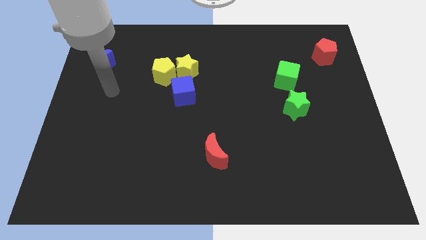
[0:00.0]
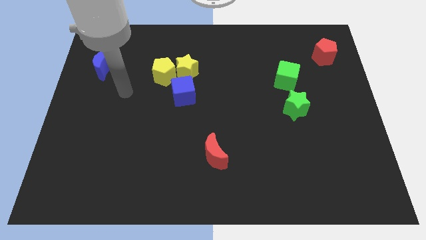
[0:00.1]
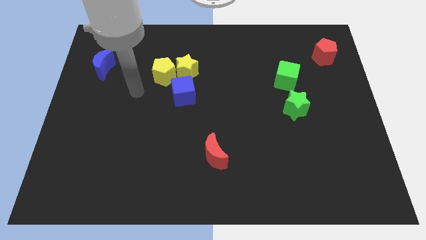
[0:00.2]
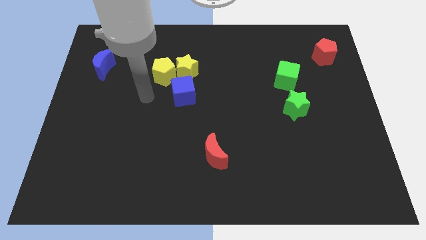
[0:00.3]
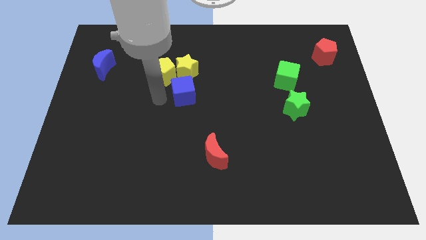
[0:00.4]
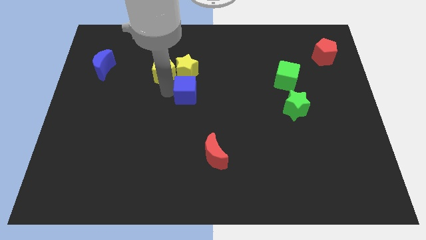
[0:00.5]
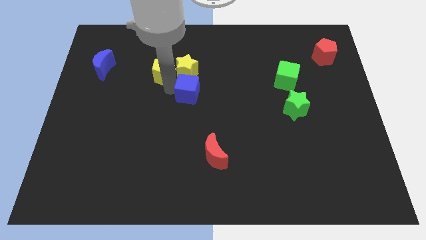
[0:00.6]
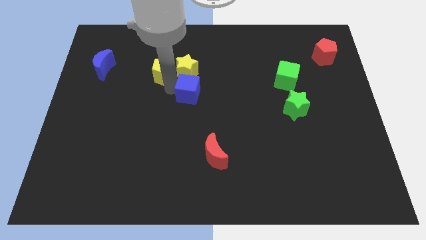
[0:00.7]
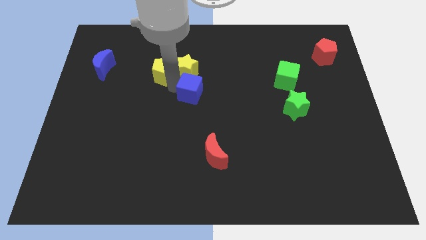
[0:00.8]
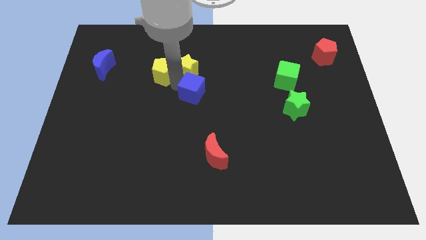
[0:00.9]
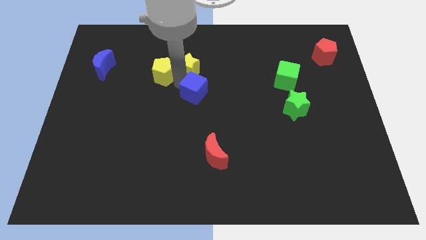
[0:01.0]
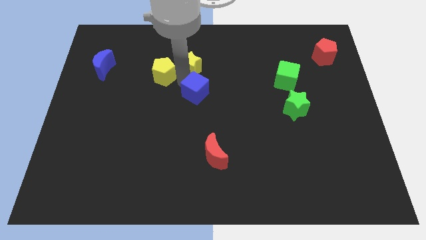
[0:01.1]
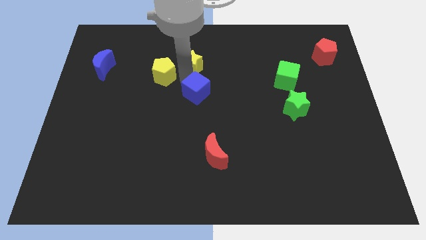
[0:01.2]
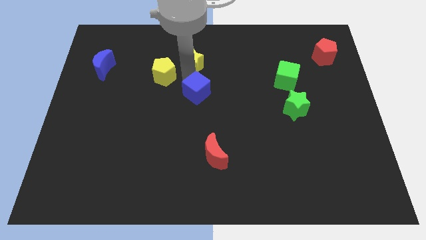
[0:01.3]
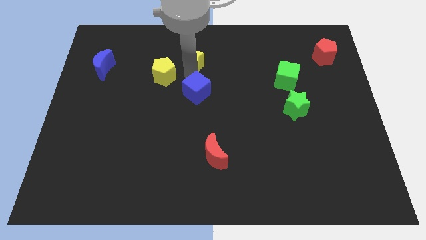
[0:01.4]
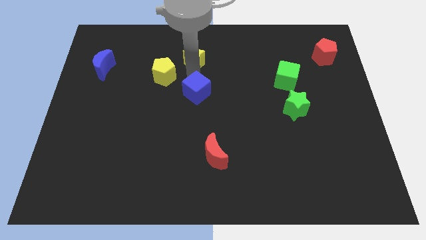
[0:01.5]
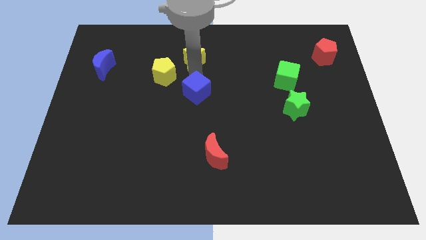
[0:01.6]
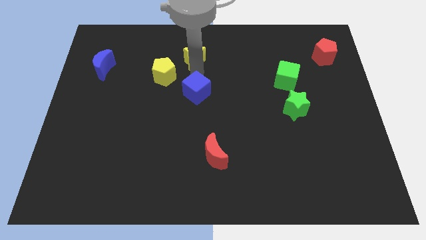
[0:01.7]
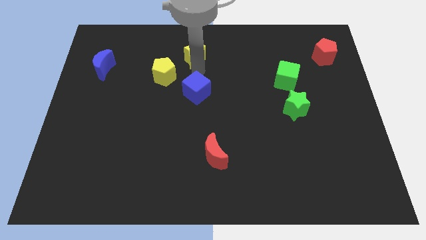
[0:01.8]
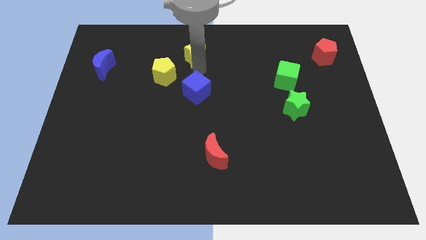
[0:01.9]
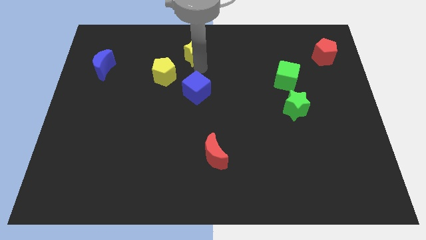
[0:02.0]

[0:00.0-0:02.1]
pull the yellow star apart from the yellow pentagon and blue cube

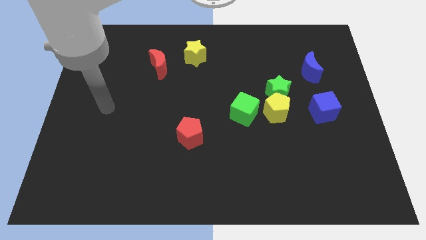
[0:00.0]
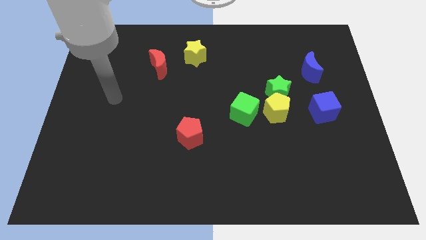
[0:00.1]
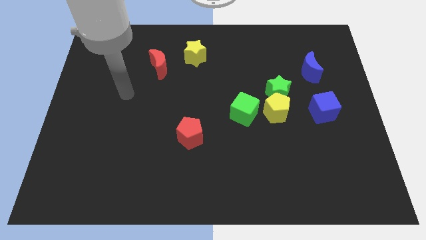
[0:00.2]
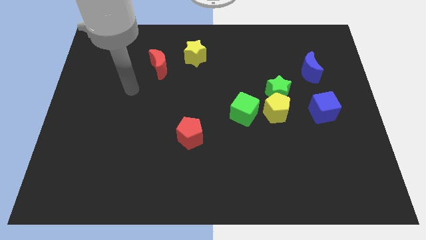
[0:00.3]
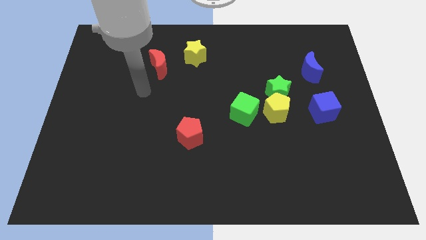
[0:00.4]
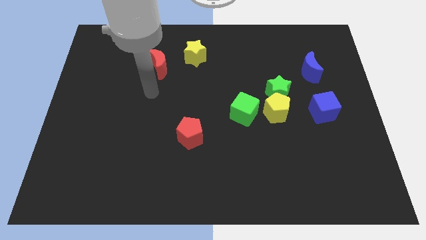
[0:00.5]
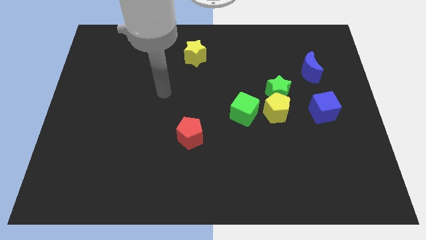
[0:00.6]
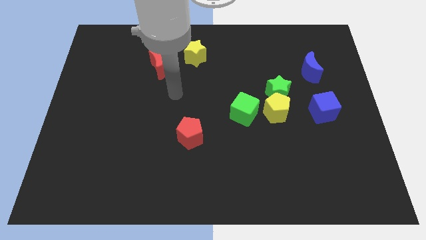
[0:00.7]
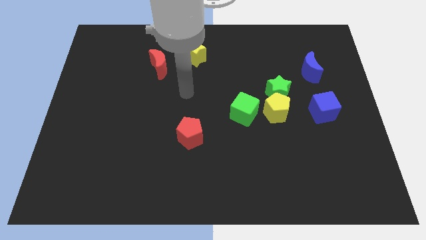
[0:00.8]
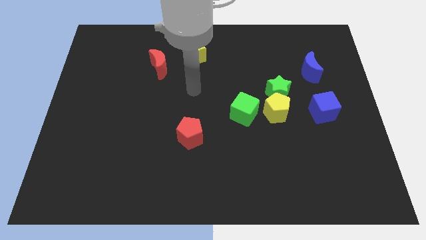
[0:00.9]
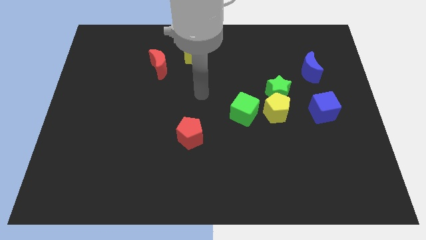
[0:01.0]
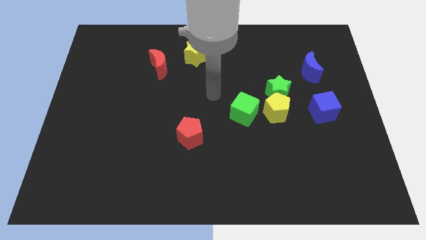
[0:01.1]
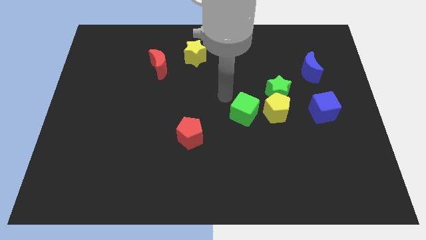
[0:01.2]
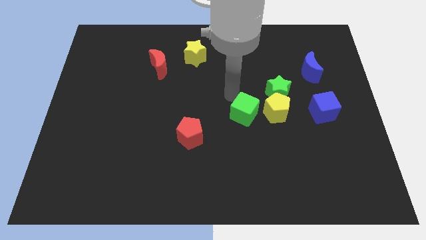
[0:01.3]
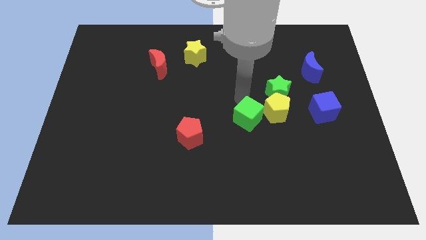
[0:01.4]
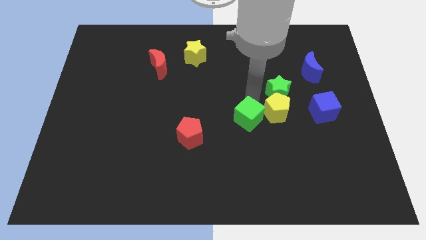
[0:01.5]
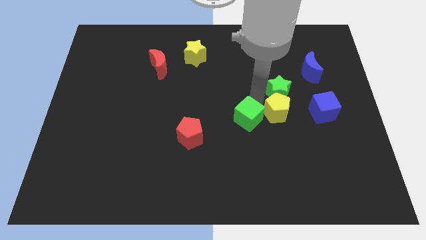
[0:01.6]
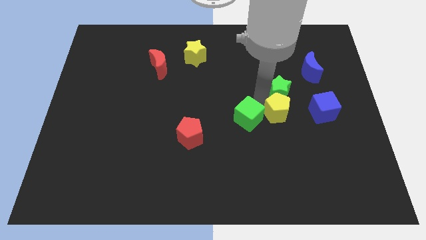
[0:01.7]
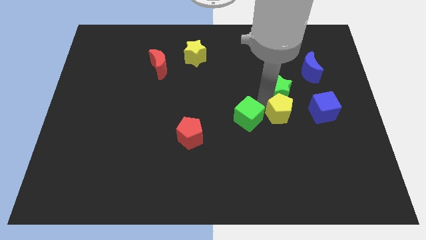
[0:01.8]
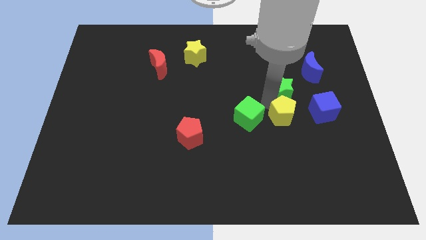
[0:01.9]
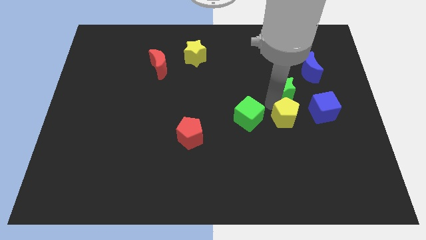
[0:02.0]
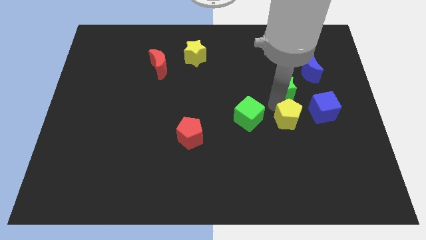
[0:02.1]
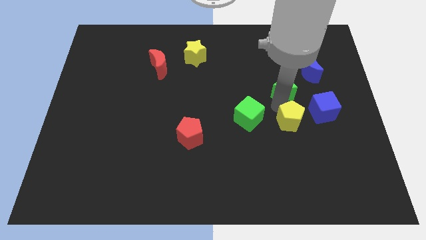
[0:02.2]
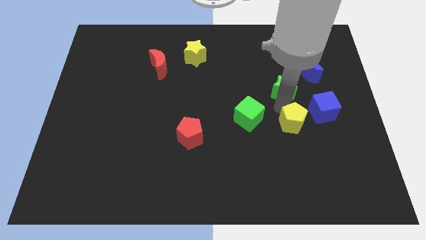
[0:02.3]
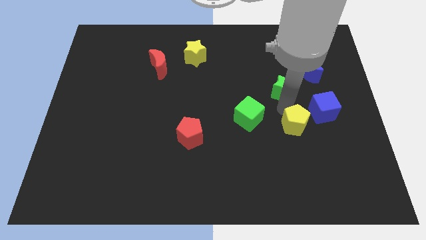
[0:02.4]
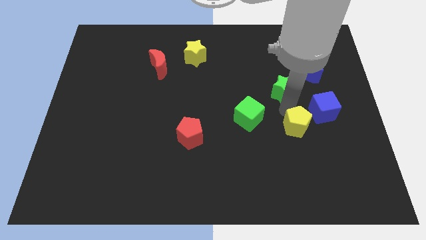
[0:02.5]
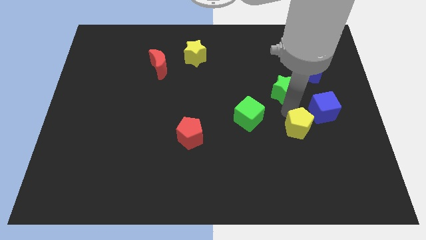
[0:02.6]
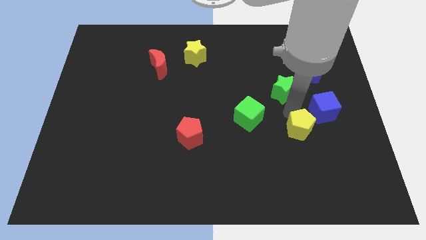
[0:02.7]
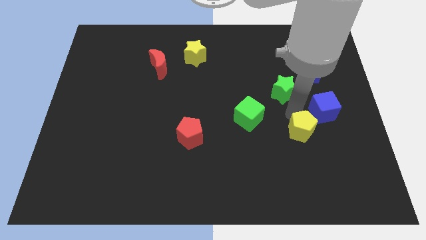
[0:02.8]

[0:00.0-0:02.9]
move the yellow pentagon away from the green star and green cube

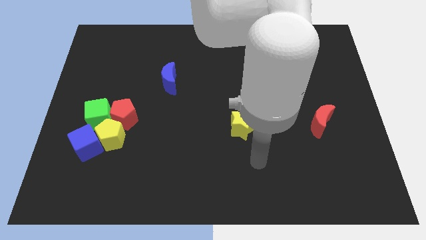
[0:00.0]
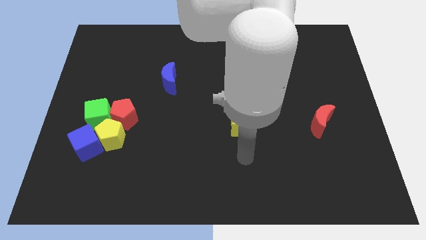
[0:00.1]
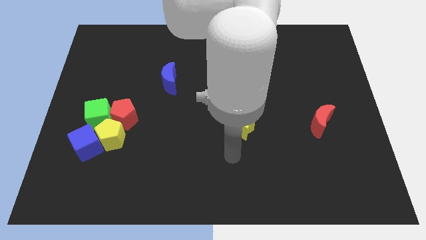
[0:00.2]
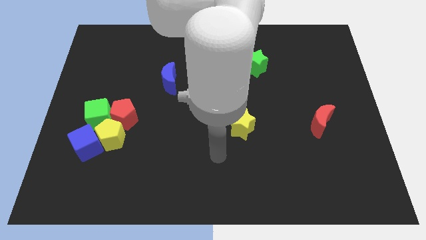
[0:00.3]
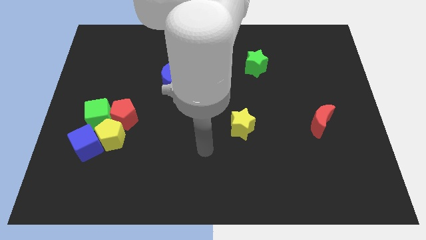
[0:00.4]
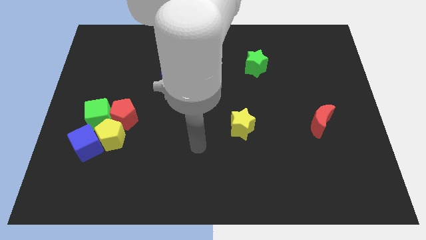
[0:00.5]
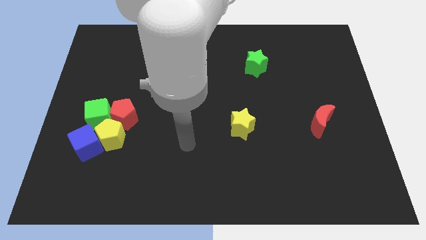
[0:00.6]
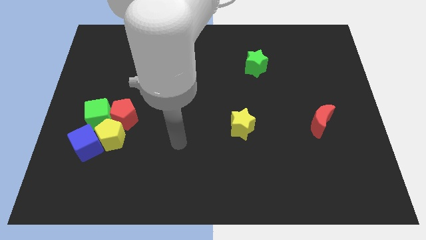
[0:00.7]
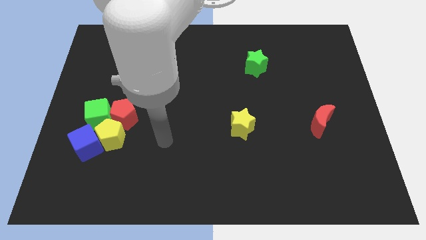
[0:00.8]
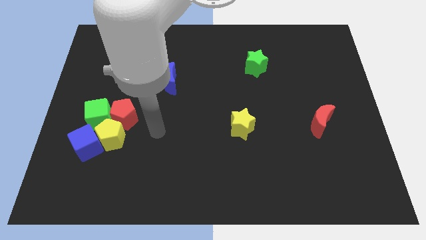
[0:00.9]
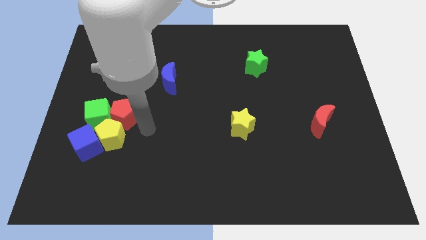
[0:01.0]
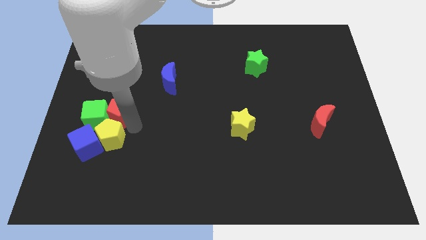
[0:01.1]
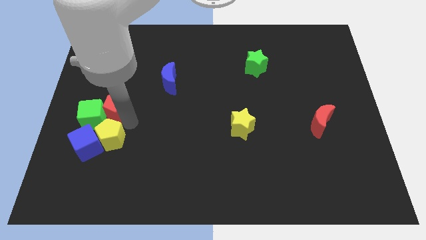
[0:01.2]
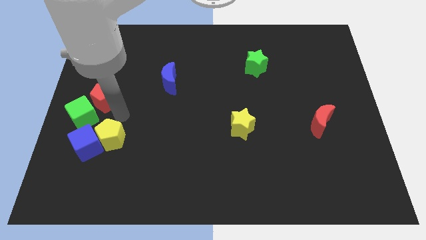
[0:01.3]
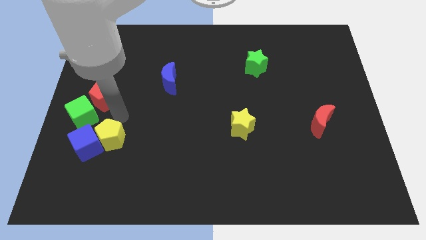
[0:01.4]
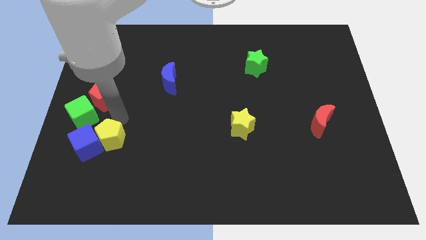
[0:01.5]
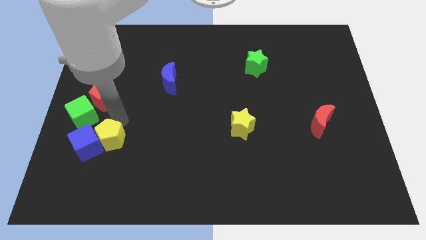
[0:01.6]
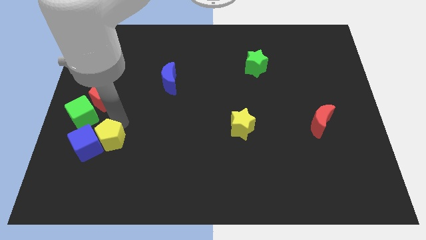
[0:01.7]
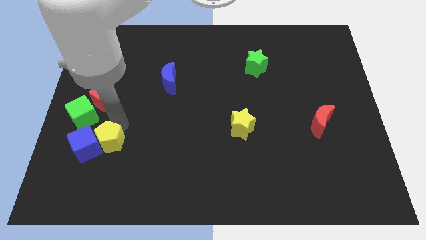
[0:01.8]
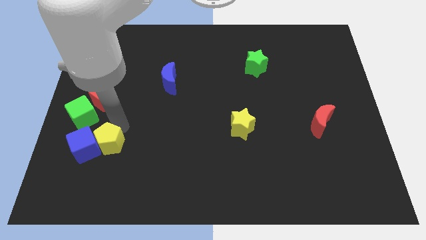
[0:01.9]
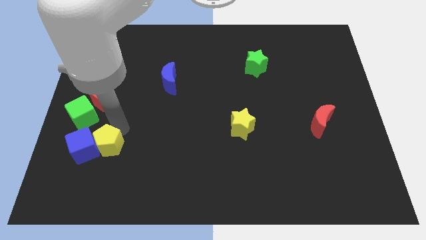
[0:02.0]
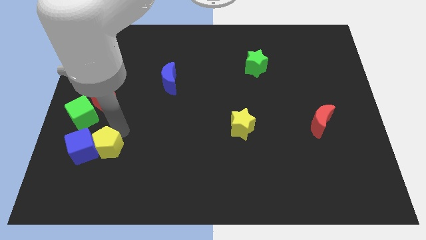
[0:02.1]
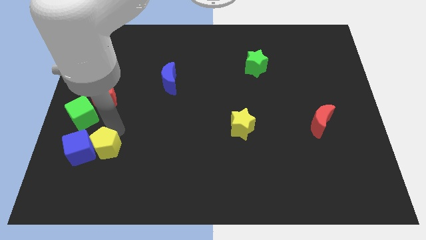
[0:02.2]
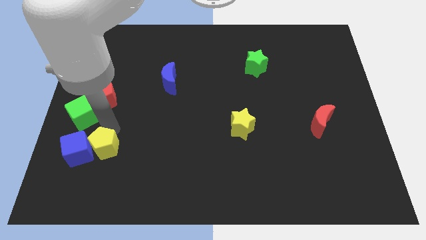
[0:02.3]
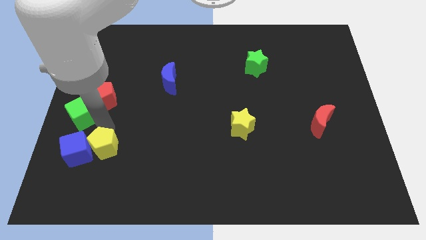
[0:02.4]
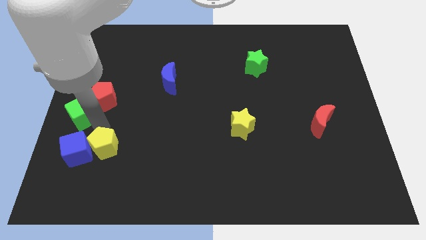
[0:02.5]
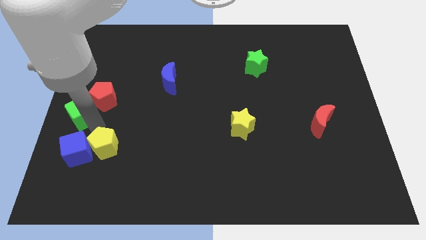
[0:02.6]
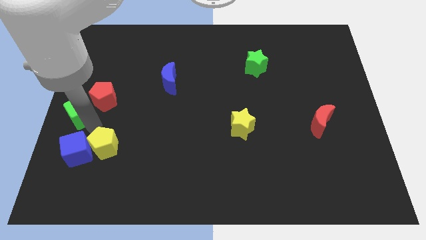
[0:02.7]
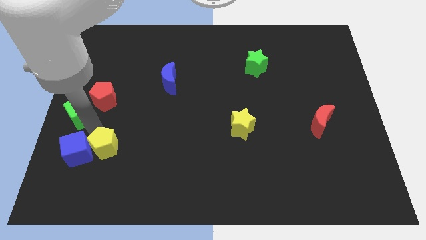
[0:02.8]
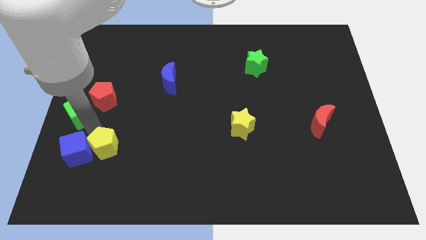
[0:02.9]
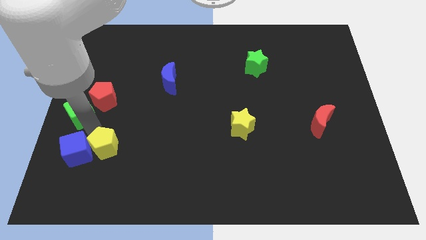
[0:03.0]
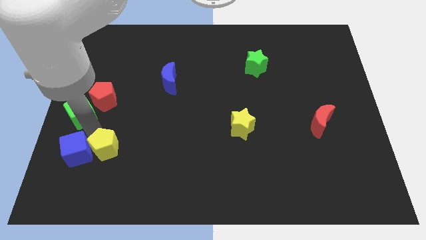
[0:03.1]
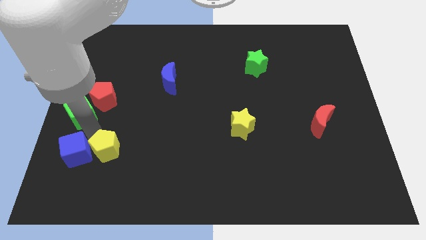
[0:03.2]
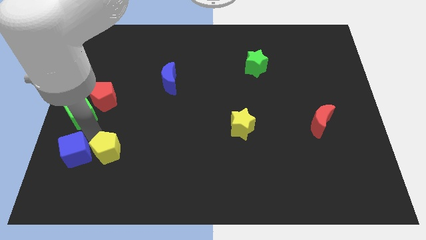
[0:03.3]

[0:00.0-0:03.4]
move the yellow pentagon away from the group of blocks

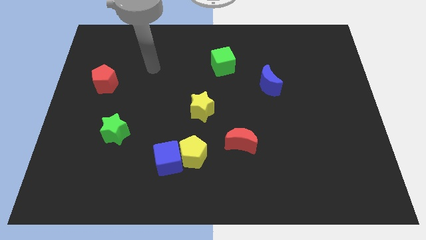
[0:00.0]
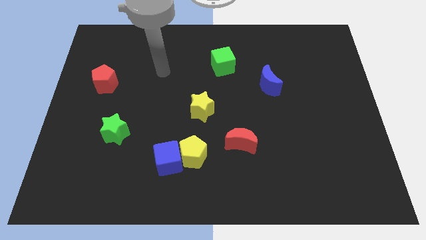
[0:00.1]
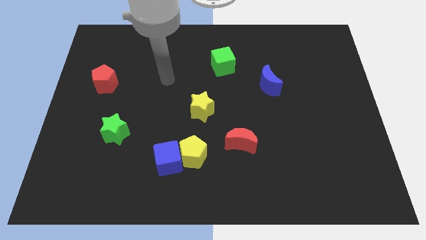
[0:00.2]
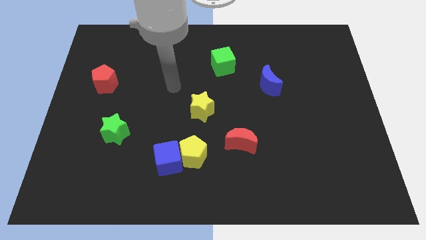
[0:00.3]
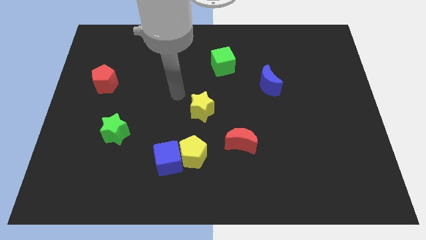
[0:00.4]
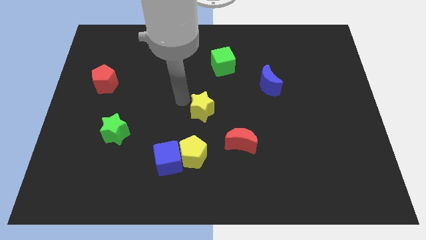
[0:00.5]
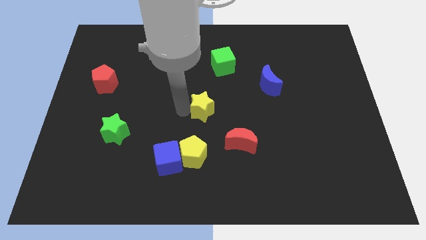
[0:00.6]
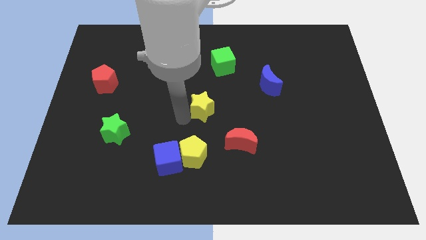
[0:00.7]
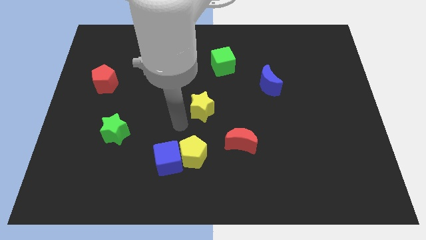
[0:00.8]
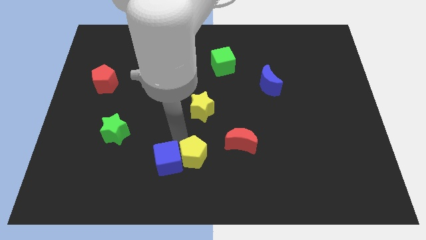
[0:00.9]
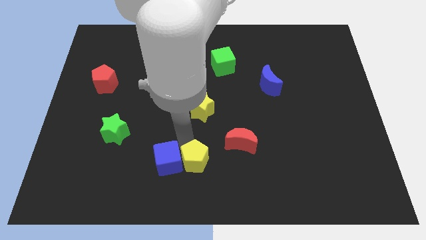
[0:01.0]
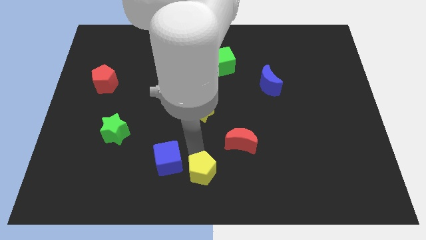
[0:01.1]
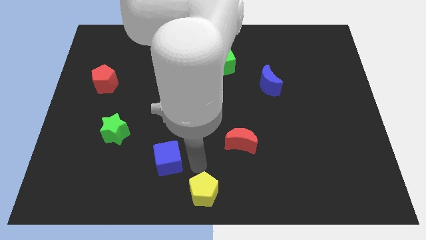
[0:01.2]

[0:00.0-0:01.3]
move the blue cube away from the yellow pentagon
